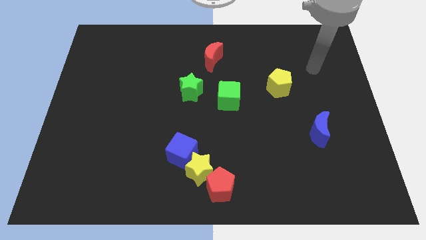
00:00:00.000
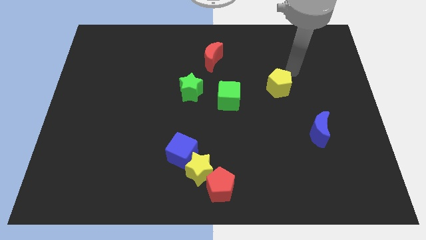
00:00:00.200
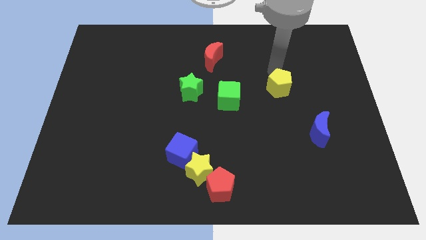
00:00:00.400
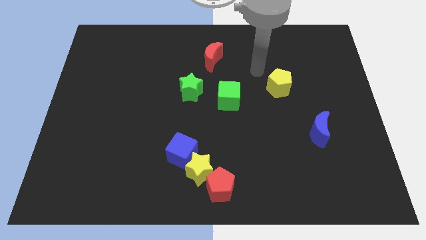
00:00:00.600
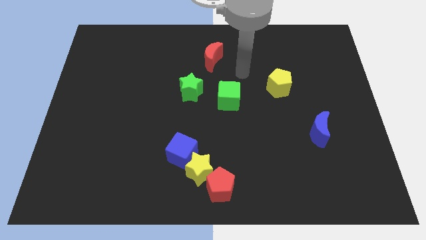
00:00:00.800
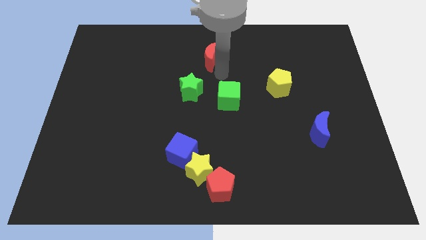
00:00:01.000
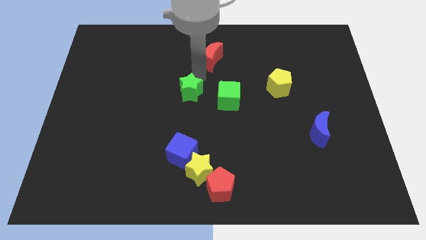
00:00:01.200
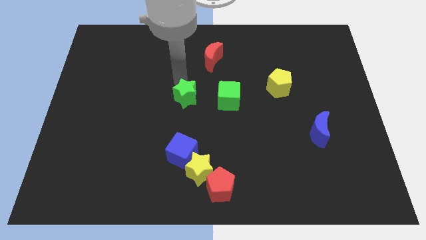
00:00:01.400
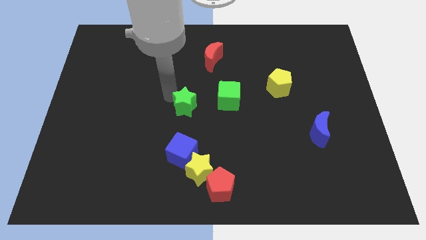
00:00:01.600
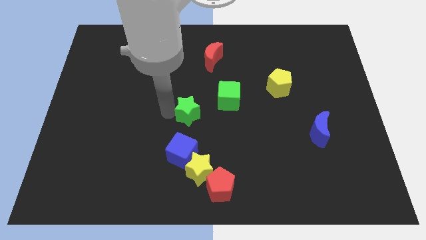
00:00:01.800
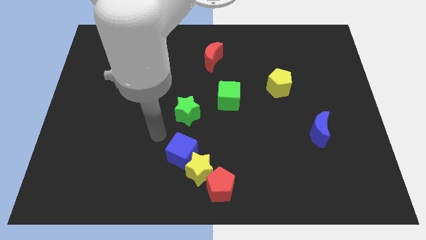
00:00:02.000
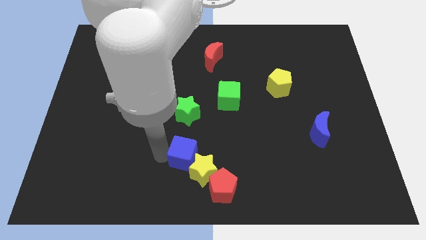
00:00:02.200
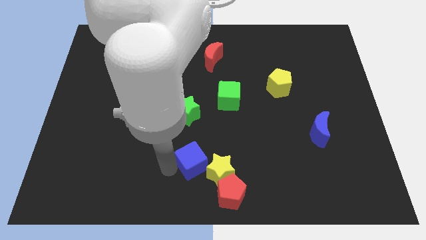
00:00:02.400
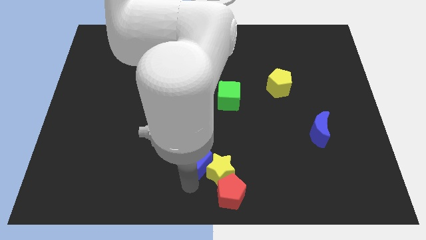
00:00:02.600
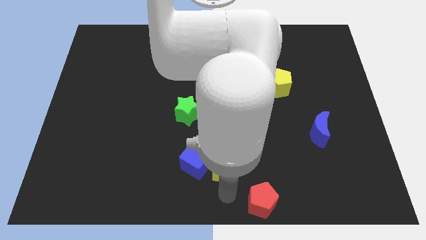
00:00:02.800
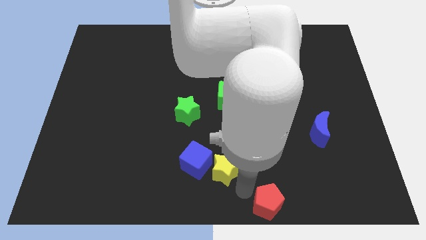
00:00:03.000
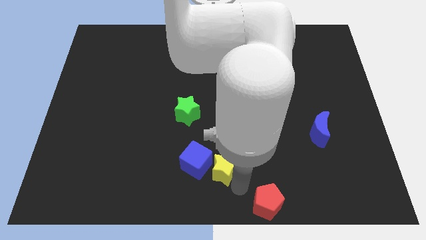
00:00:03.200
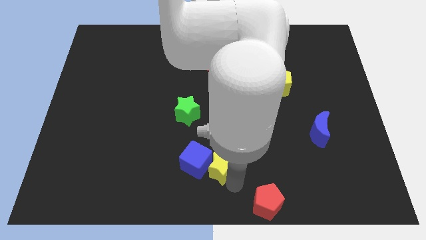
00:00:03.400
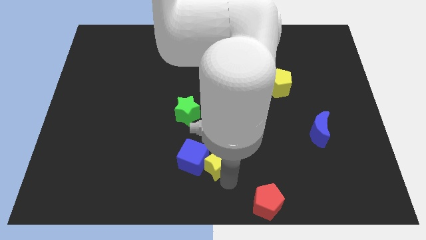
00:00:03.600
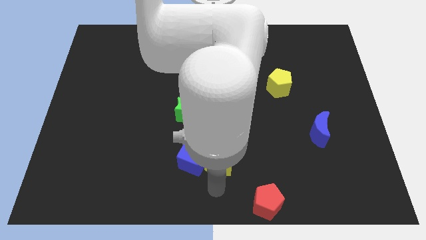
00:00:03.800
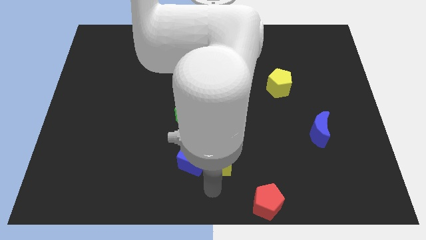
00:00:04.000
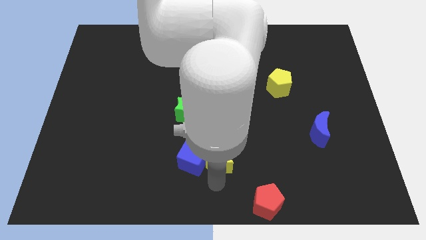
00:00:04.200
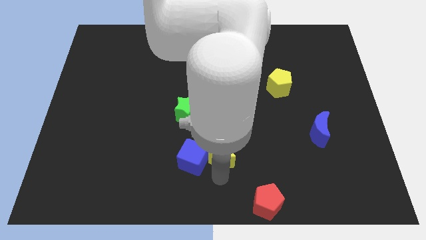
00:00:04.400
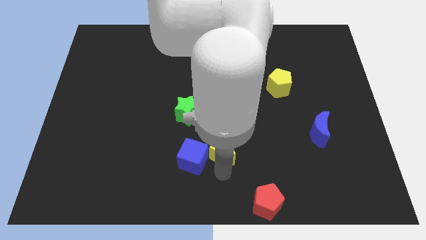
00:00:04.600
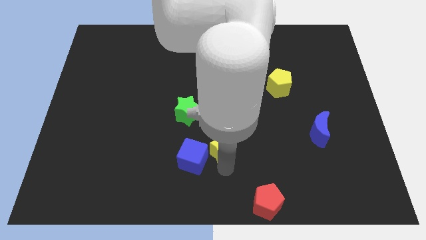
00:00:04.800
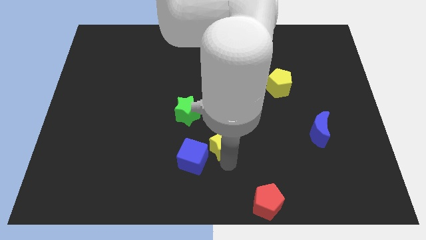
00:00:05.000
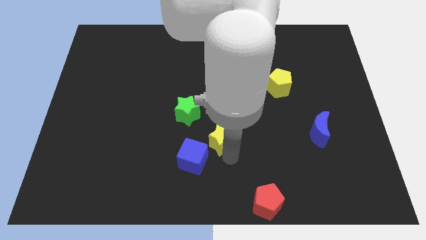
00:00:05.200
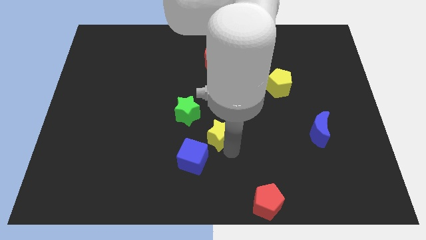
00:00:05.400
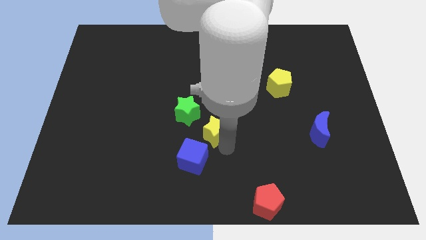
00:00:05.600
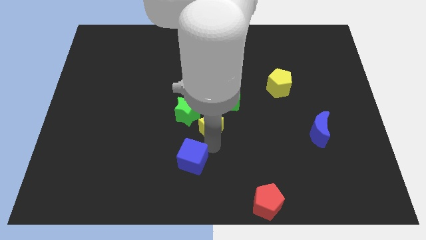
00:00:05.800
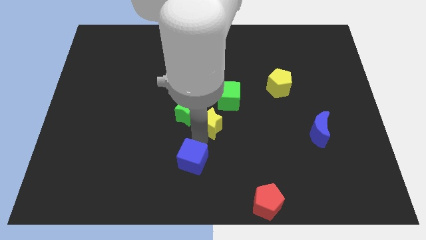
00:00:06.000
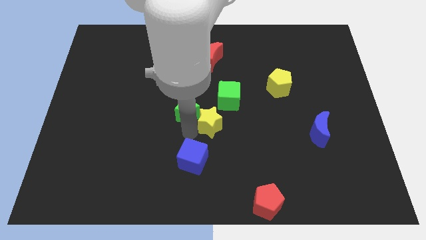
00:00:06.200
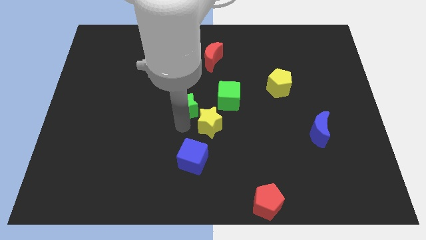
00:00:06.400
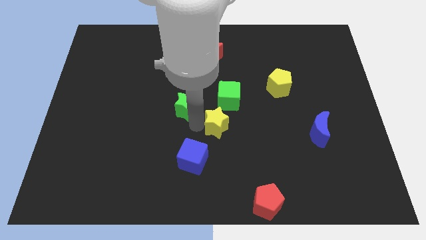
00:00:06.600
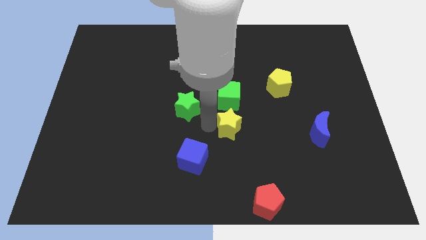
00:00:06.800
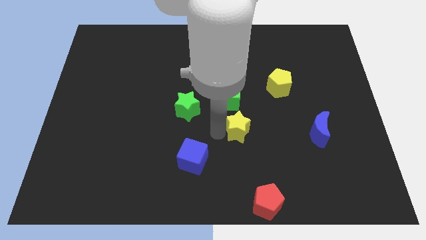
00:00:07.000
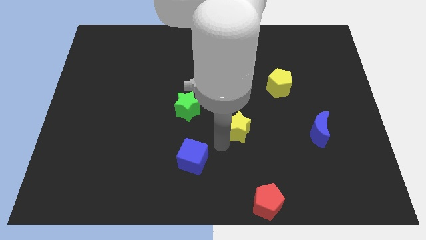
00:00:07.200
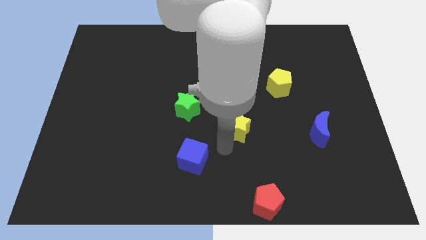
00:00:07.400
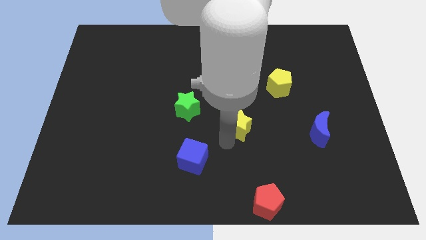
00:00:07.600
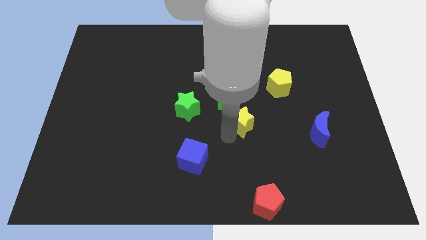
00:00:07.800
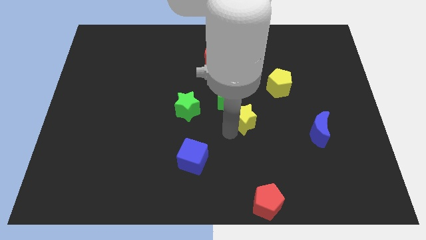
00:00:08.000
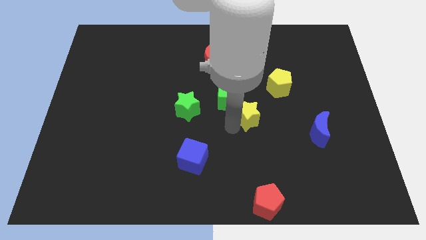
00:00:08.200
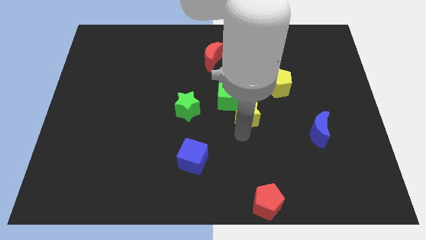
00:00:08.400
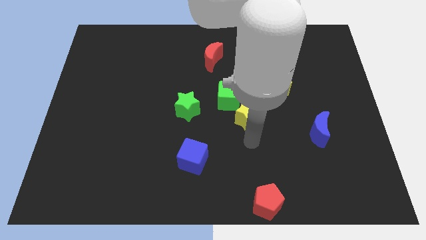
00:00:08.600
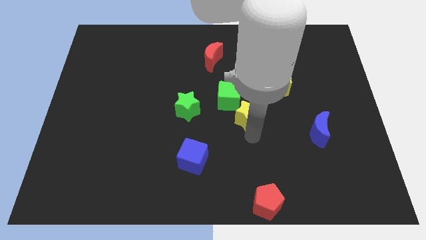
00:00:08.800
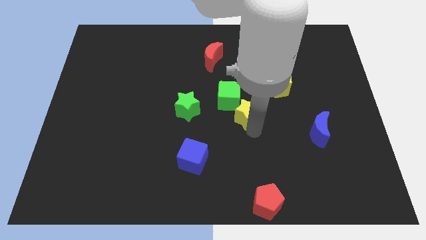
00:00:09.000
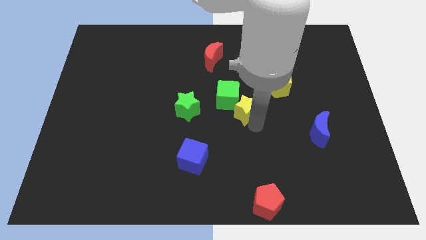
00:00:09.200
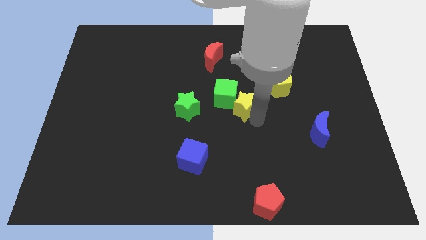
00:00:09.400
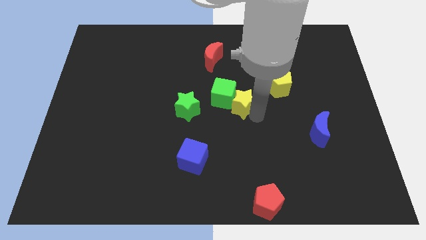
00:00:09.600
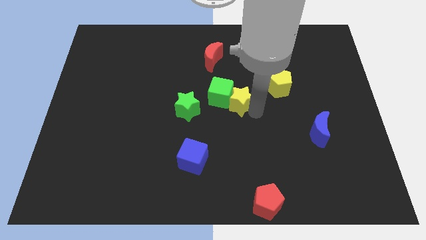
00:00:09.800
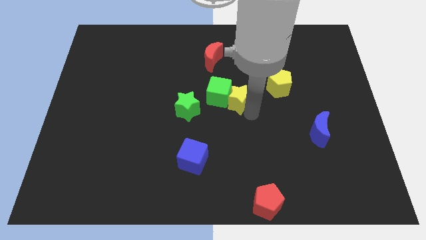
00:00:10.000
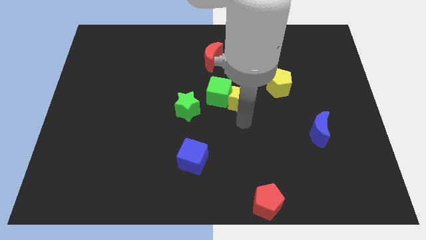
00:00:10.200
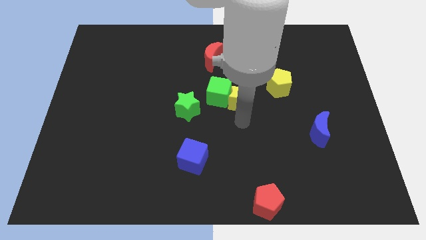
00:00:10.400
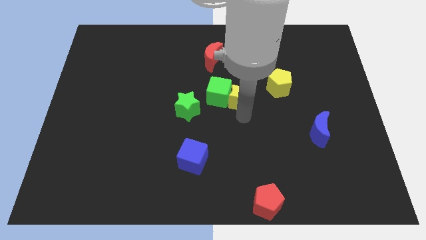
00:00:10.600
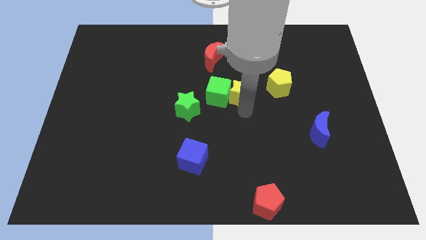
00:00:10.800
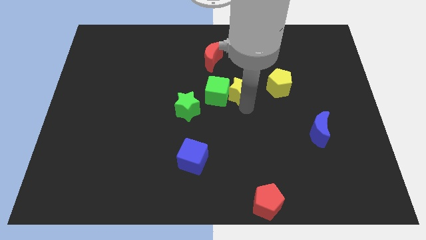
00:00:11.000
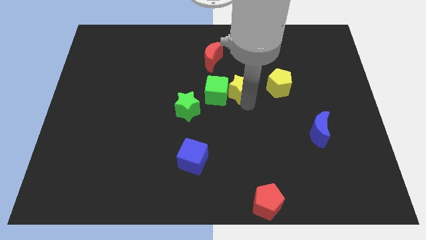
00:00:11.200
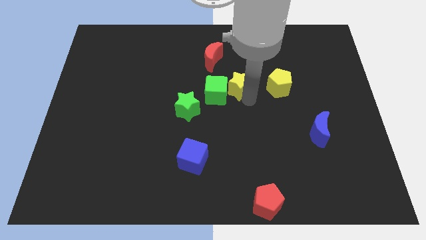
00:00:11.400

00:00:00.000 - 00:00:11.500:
slide the yellow star to the bottom right side of the red moon

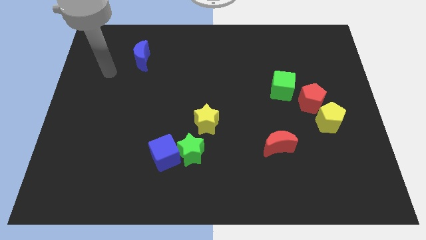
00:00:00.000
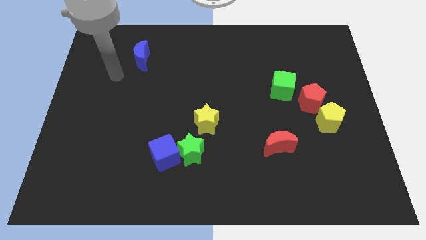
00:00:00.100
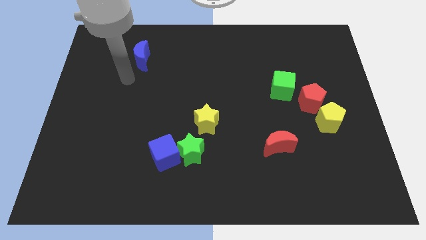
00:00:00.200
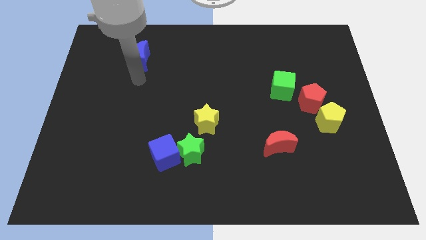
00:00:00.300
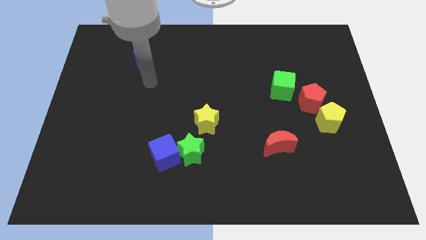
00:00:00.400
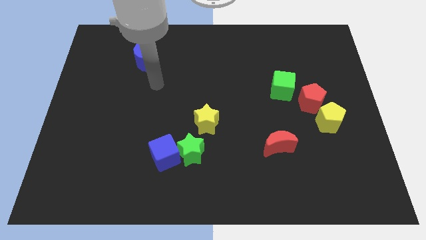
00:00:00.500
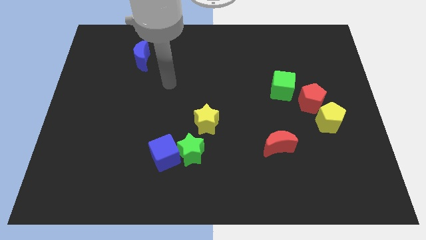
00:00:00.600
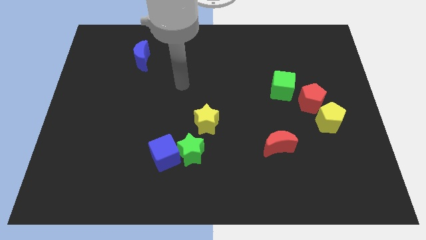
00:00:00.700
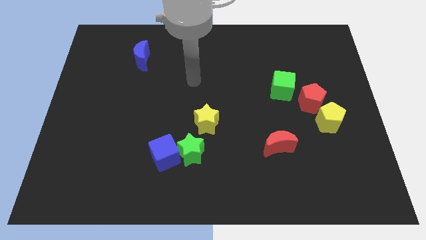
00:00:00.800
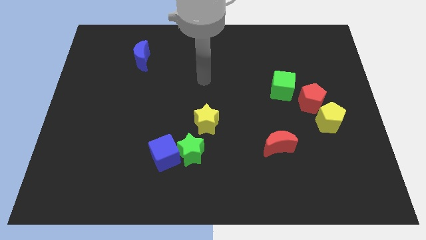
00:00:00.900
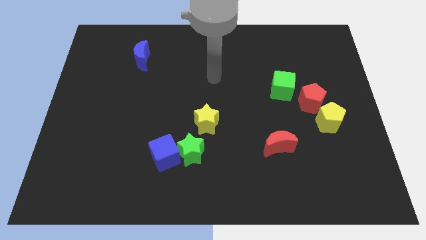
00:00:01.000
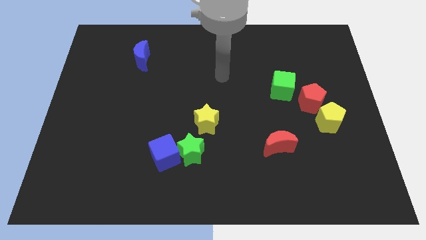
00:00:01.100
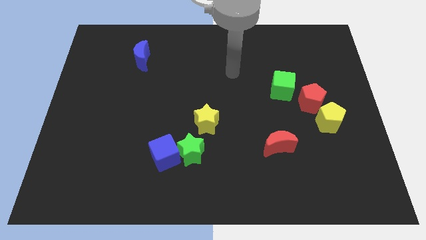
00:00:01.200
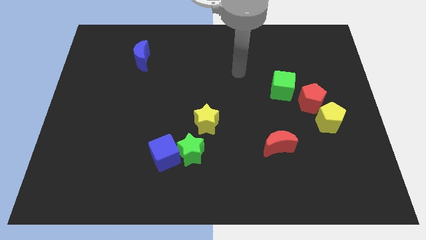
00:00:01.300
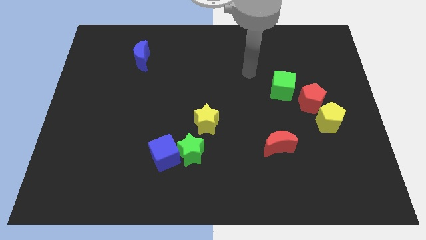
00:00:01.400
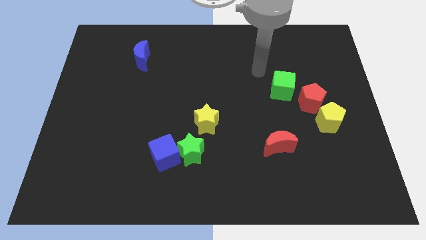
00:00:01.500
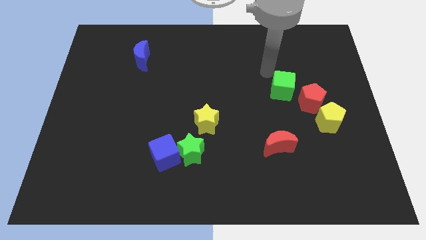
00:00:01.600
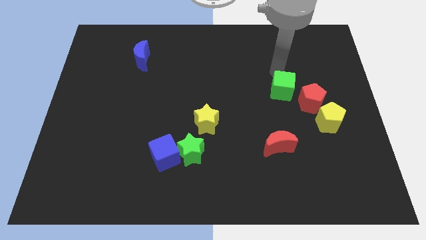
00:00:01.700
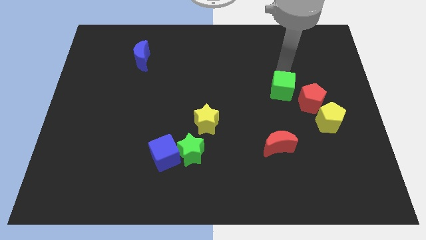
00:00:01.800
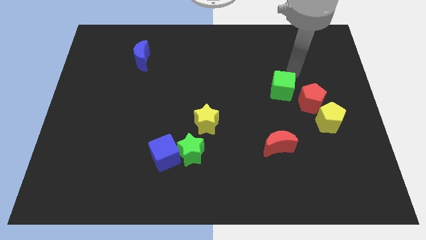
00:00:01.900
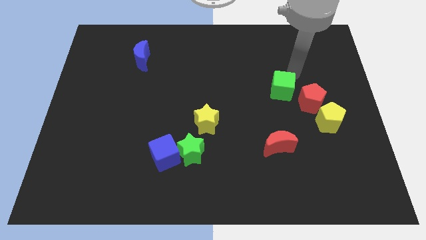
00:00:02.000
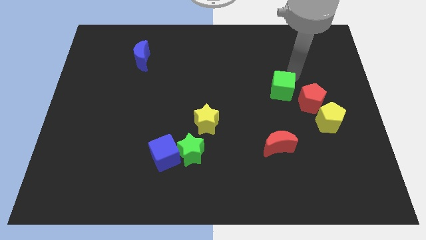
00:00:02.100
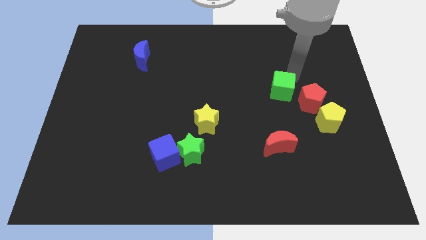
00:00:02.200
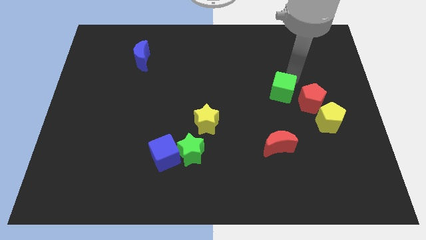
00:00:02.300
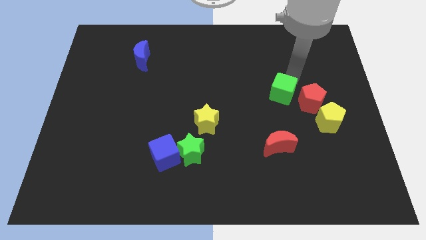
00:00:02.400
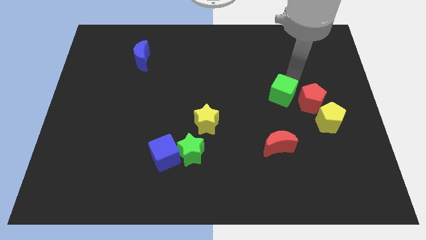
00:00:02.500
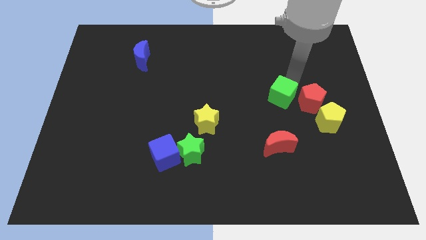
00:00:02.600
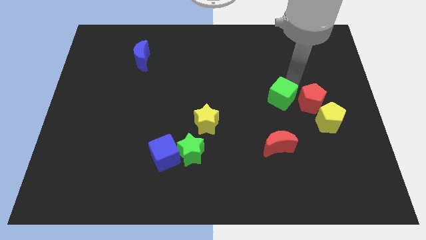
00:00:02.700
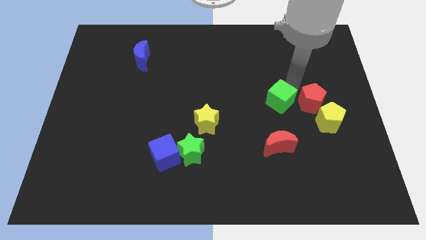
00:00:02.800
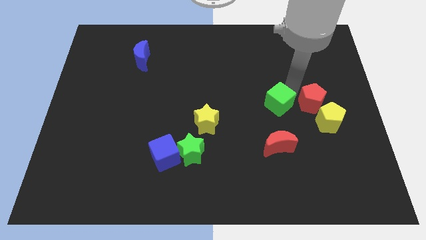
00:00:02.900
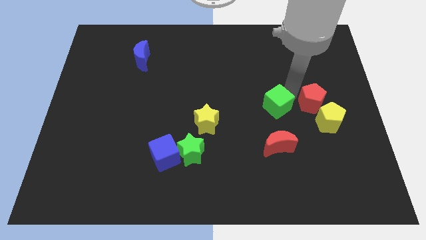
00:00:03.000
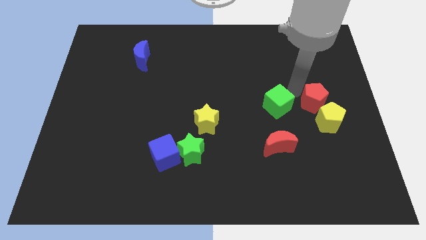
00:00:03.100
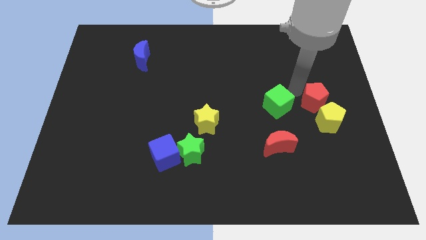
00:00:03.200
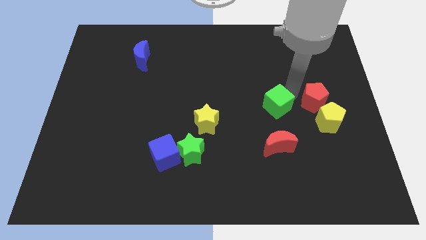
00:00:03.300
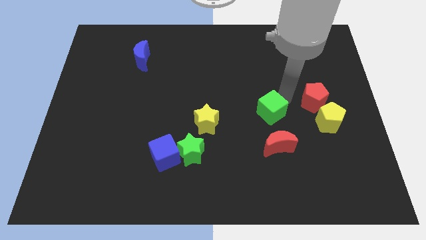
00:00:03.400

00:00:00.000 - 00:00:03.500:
push the green cube to the right of the yellow star
